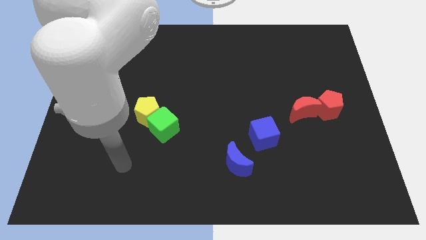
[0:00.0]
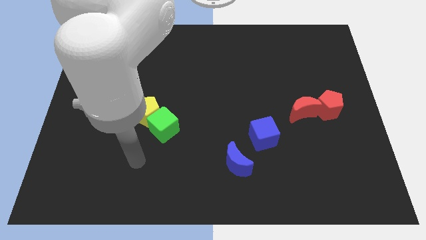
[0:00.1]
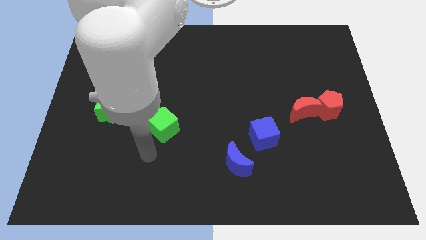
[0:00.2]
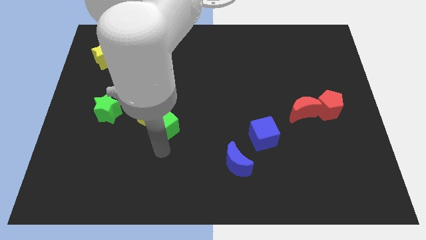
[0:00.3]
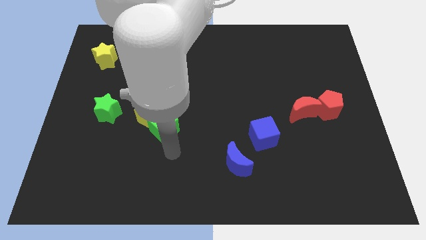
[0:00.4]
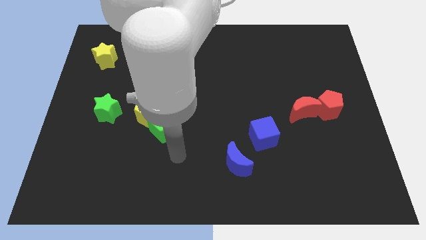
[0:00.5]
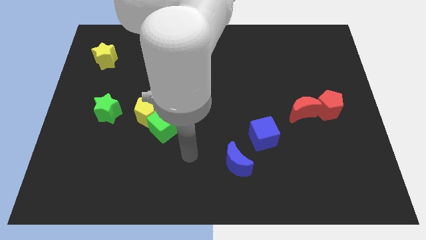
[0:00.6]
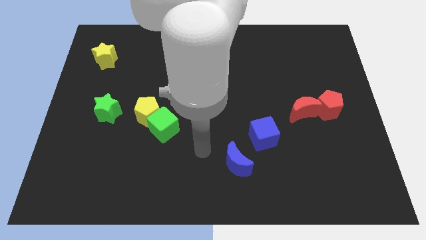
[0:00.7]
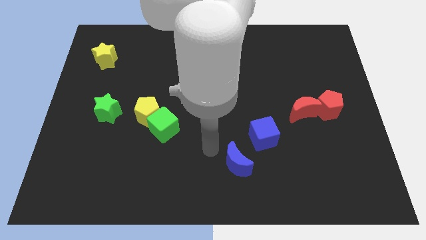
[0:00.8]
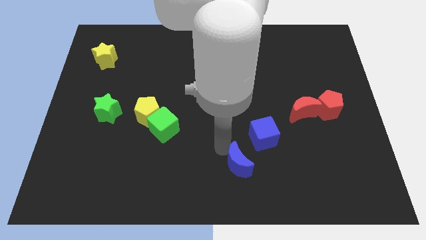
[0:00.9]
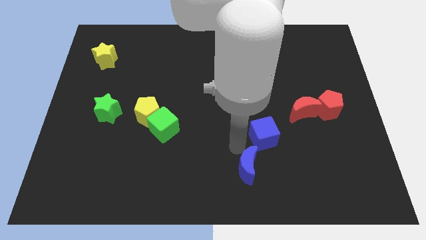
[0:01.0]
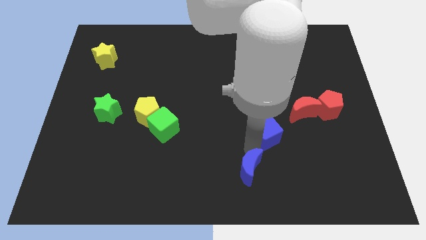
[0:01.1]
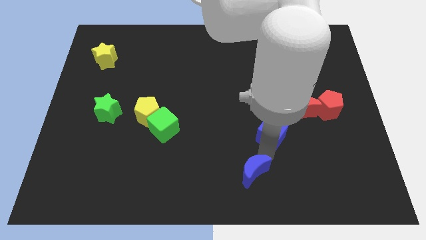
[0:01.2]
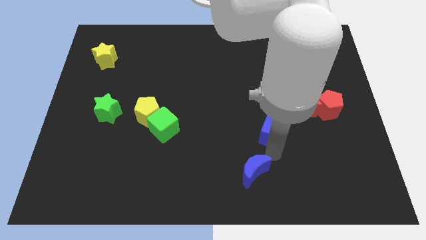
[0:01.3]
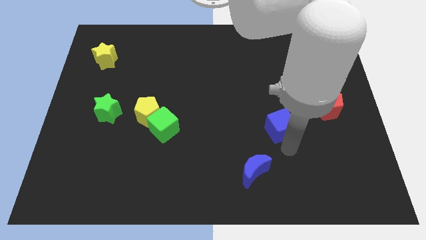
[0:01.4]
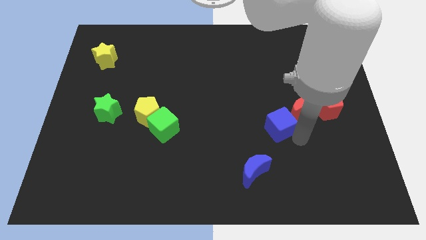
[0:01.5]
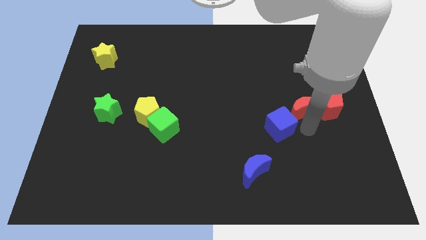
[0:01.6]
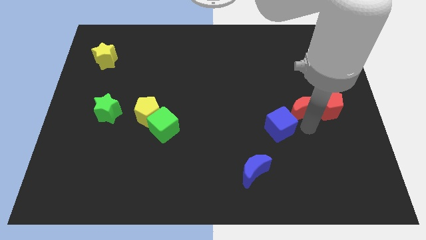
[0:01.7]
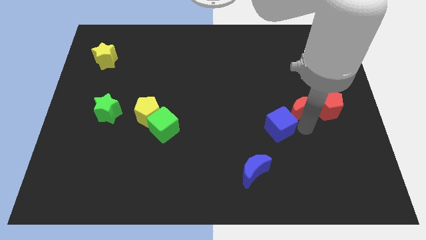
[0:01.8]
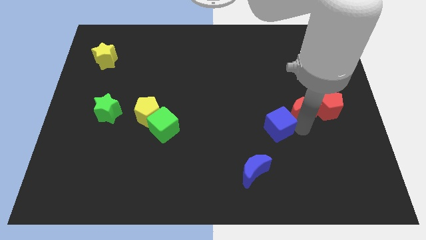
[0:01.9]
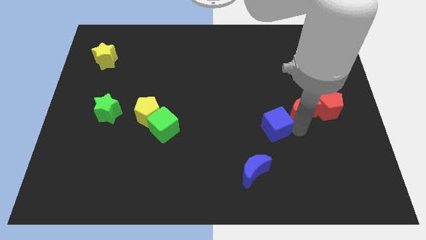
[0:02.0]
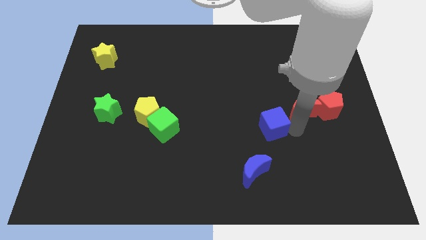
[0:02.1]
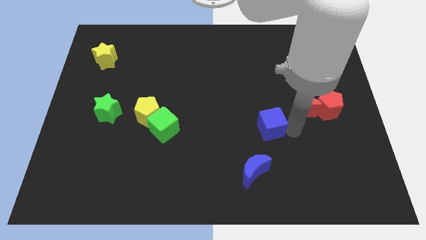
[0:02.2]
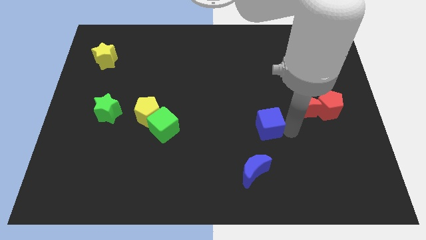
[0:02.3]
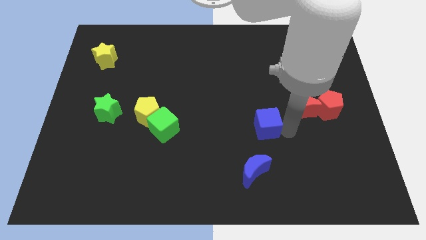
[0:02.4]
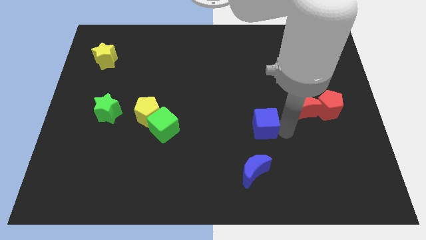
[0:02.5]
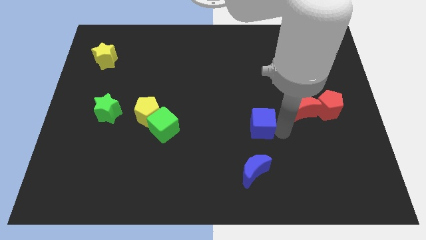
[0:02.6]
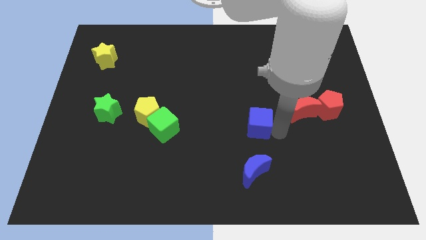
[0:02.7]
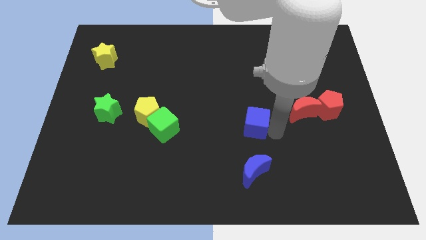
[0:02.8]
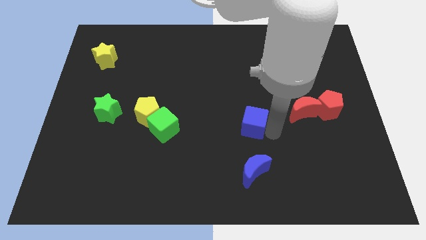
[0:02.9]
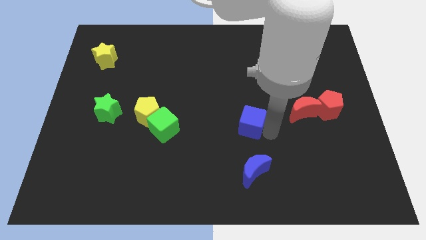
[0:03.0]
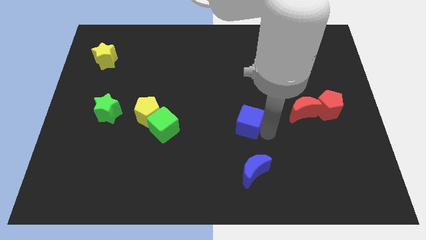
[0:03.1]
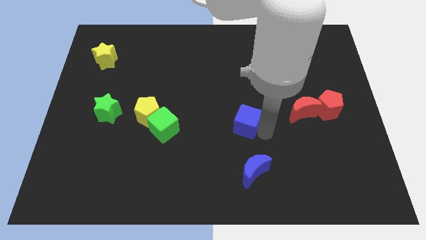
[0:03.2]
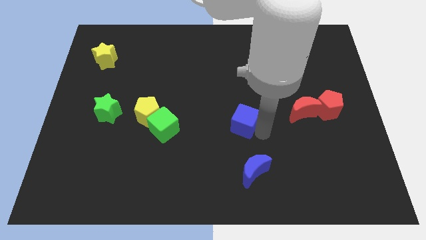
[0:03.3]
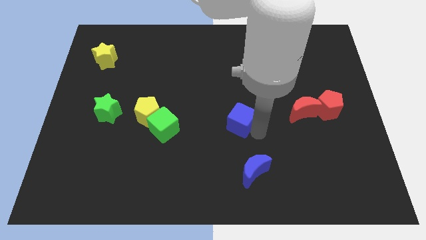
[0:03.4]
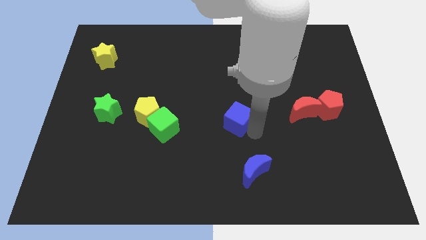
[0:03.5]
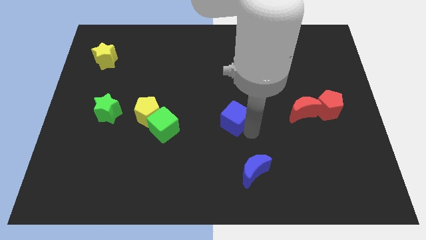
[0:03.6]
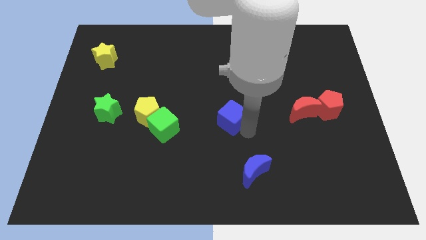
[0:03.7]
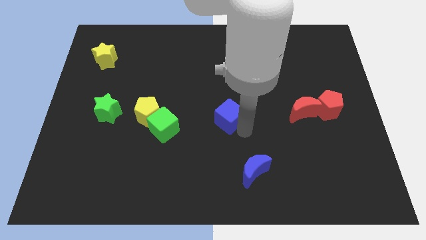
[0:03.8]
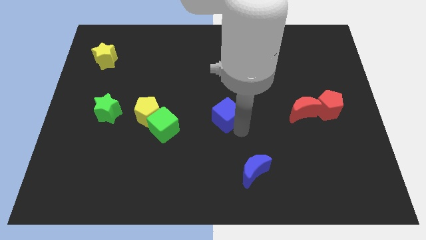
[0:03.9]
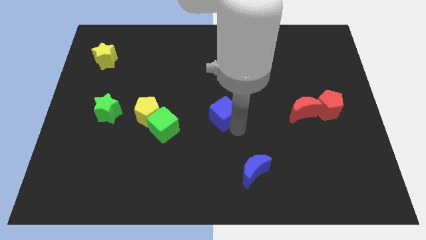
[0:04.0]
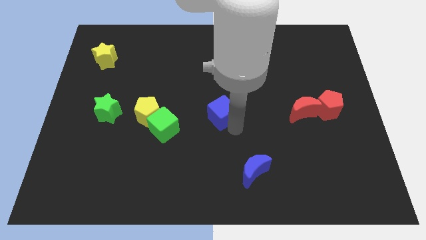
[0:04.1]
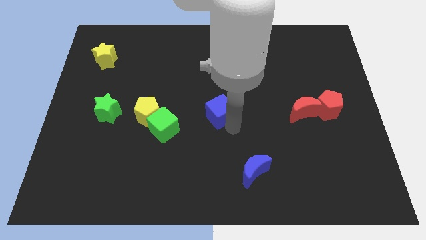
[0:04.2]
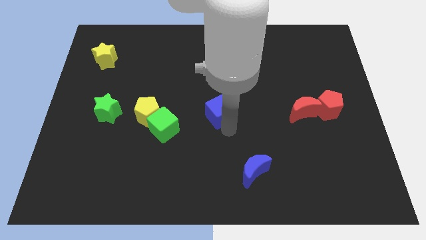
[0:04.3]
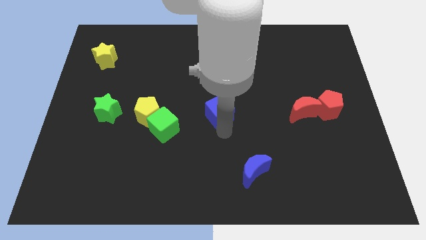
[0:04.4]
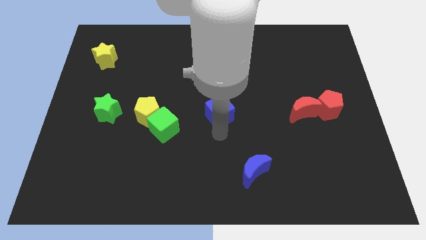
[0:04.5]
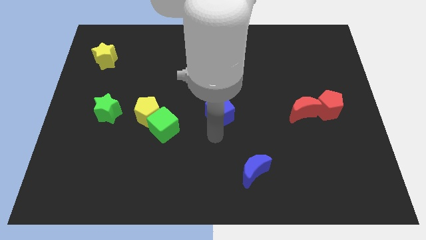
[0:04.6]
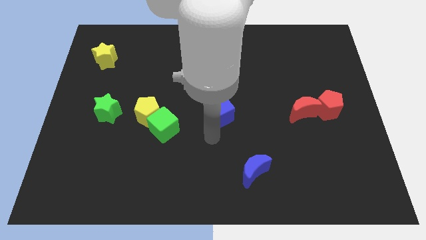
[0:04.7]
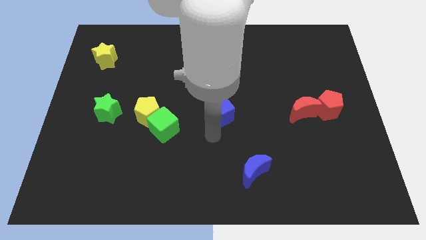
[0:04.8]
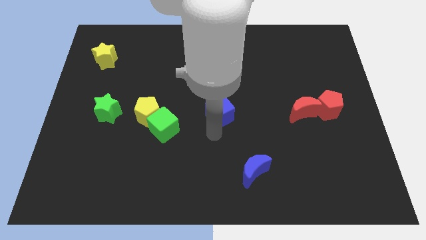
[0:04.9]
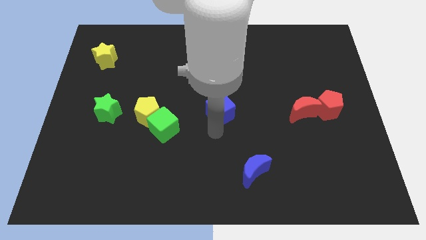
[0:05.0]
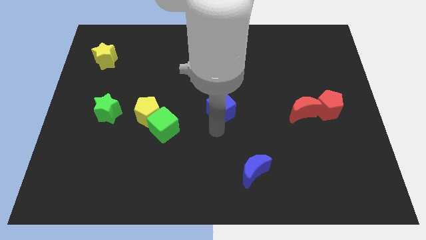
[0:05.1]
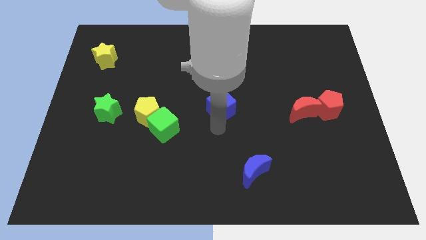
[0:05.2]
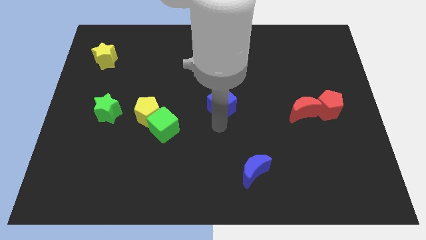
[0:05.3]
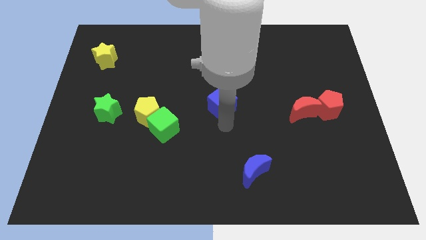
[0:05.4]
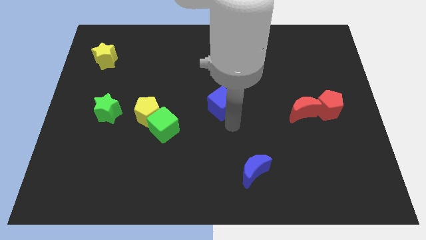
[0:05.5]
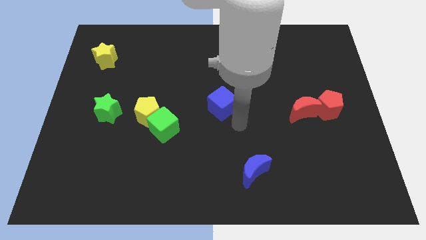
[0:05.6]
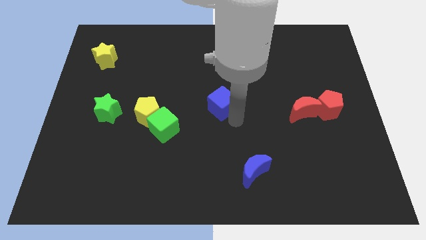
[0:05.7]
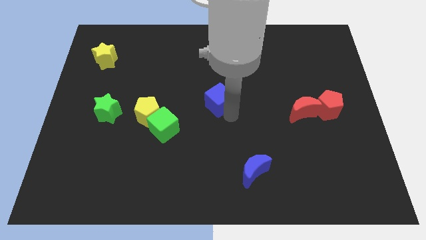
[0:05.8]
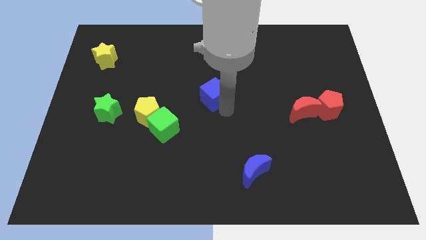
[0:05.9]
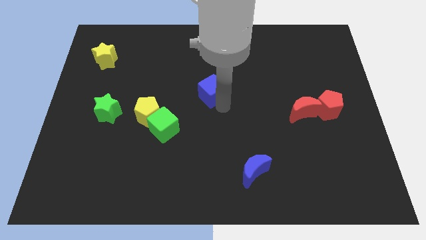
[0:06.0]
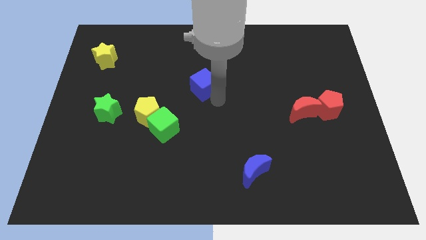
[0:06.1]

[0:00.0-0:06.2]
push the blue cube up and to the left diagonally

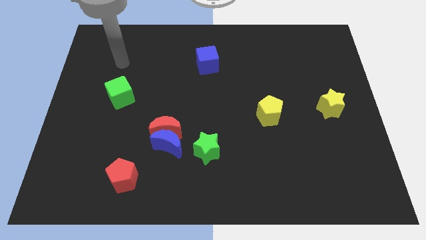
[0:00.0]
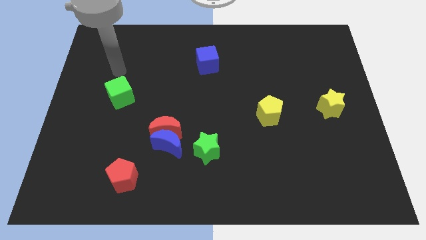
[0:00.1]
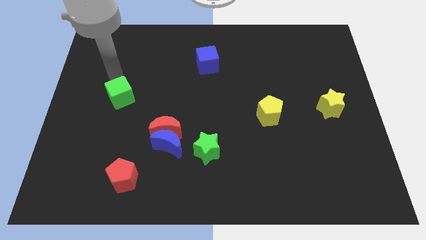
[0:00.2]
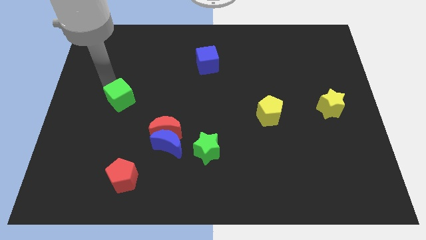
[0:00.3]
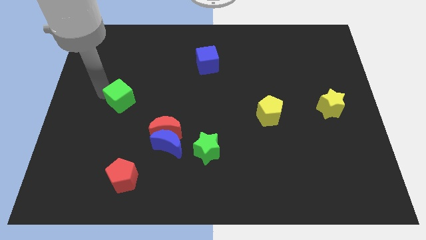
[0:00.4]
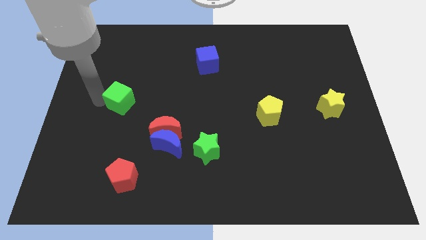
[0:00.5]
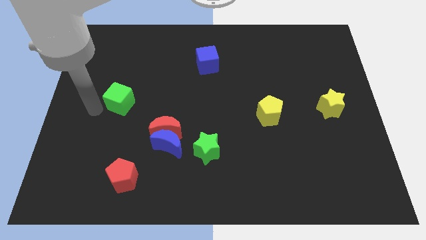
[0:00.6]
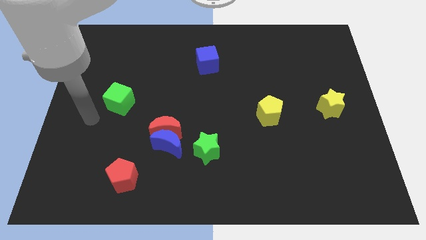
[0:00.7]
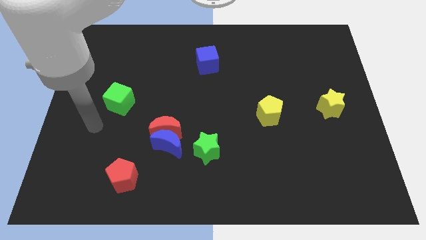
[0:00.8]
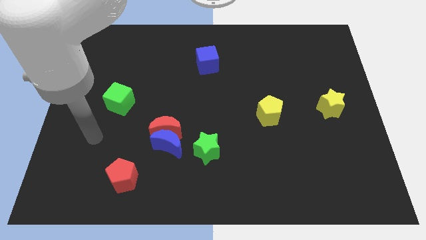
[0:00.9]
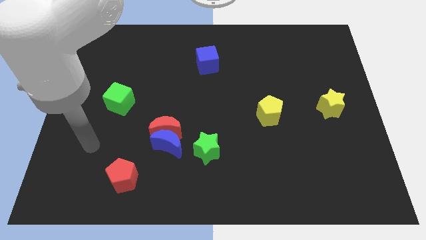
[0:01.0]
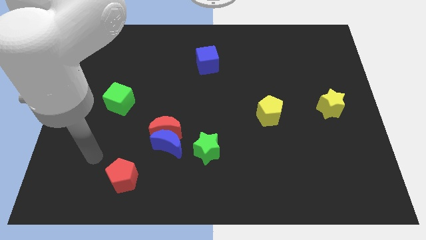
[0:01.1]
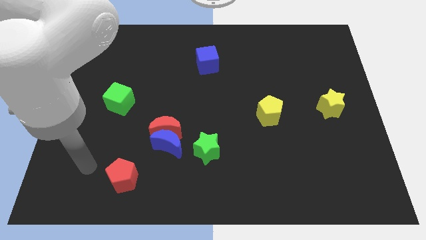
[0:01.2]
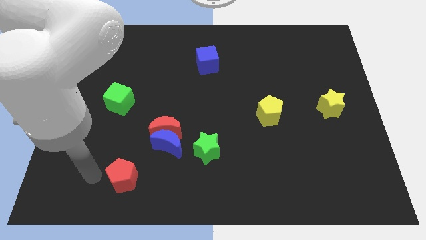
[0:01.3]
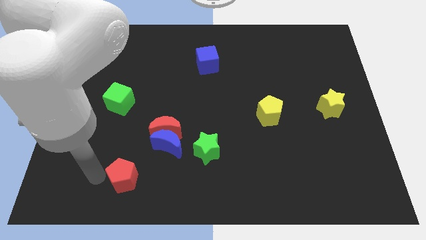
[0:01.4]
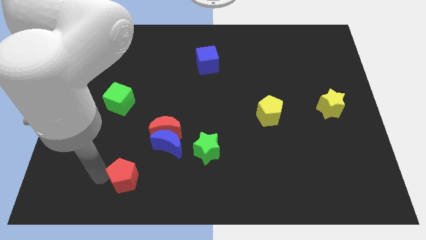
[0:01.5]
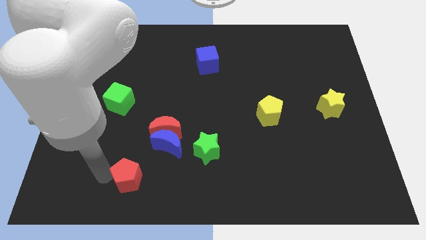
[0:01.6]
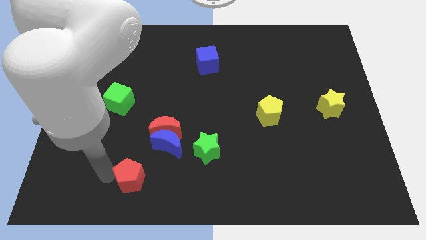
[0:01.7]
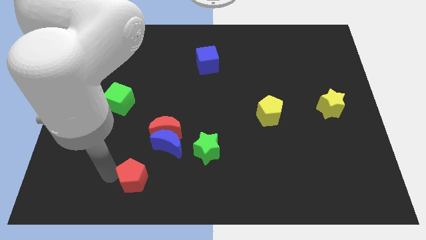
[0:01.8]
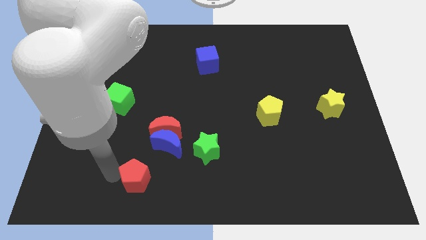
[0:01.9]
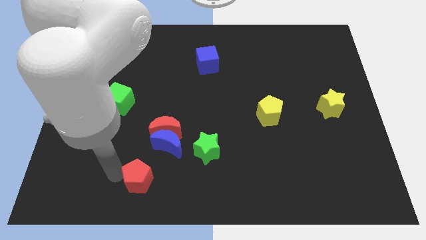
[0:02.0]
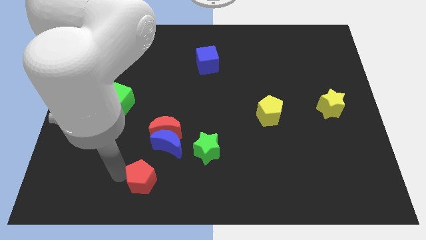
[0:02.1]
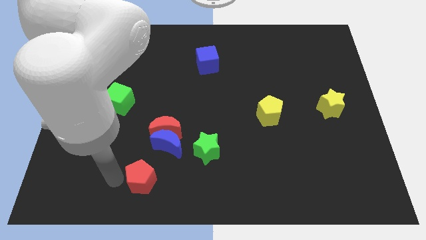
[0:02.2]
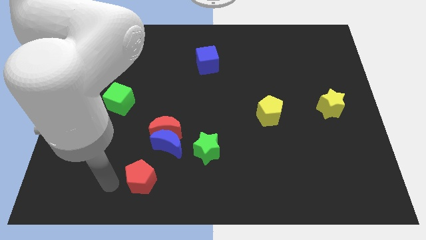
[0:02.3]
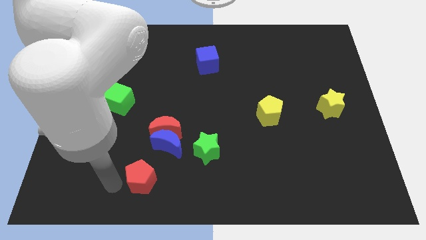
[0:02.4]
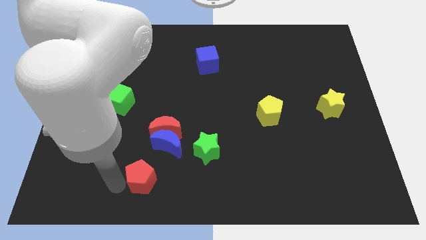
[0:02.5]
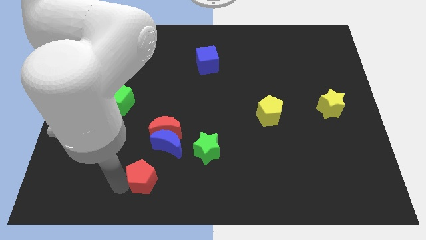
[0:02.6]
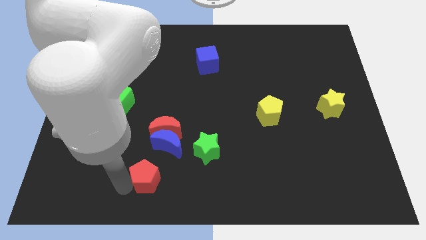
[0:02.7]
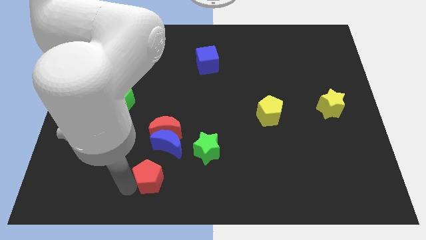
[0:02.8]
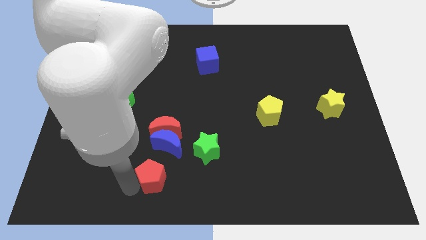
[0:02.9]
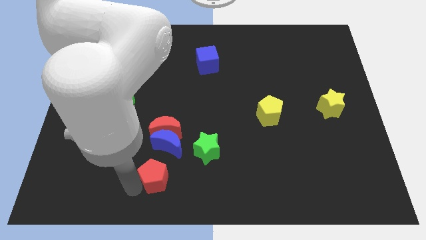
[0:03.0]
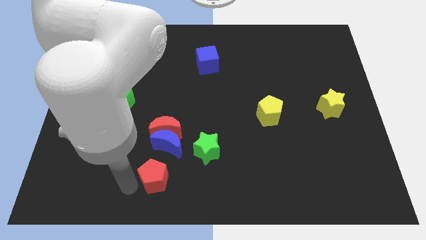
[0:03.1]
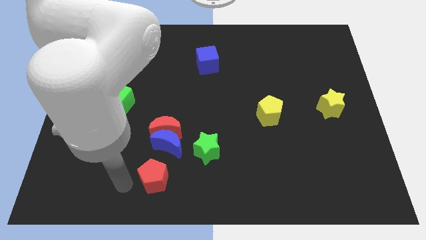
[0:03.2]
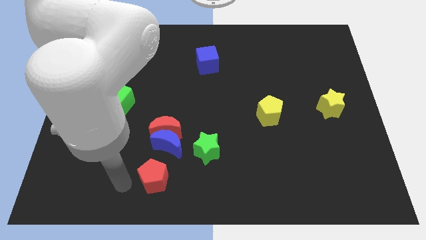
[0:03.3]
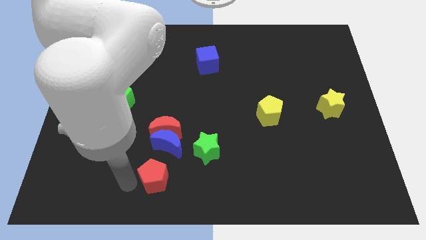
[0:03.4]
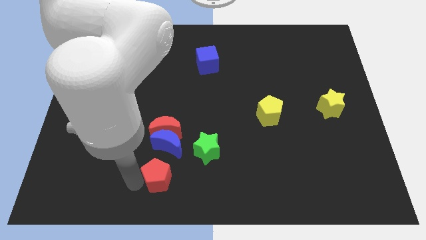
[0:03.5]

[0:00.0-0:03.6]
slightly slide the red pentagon right
